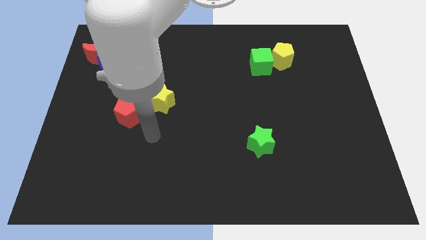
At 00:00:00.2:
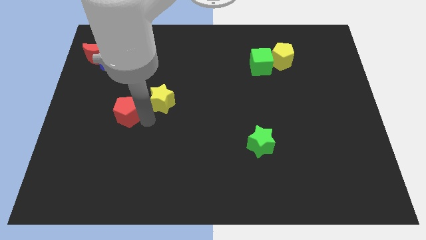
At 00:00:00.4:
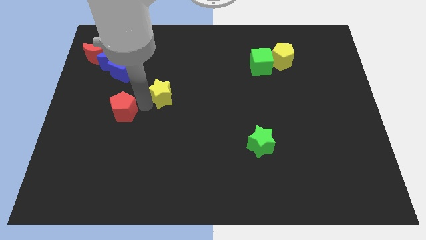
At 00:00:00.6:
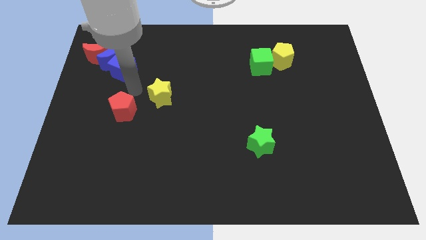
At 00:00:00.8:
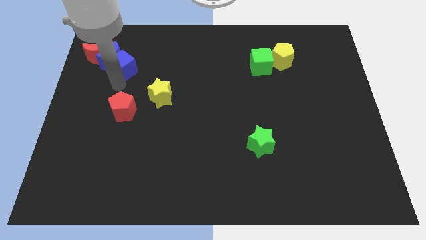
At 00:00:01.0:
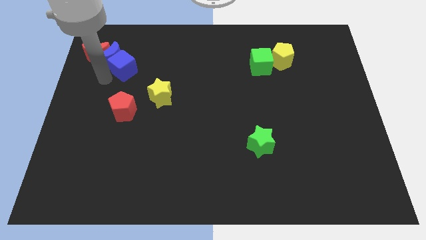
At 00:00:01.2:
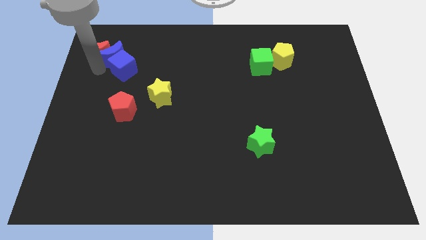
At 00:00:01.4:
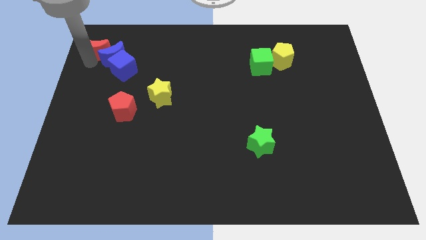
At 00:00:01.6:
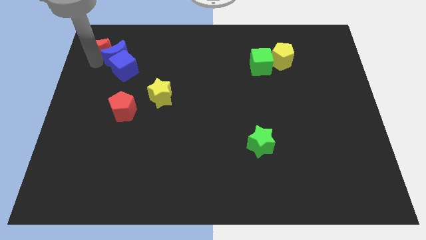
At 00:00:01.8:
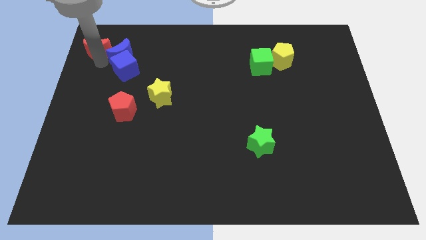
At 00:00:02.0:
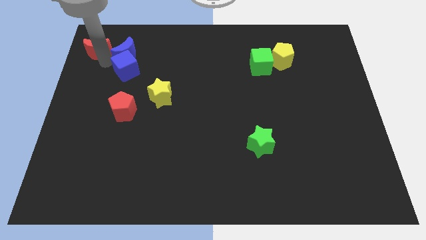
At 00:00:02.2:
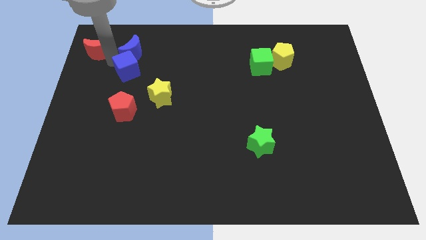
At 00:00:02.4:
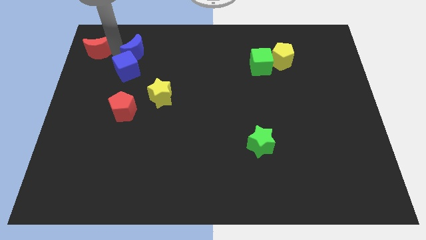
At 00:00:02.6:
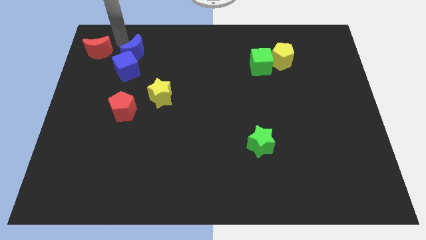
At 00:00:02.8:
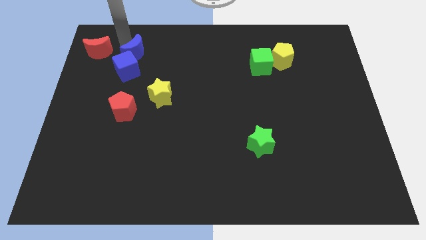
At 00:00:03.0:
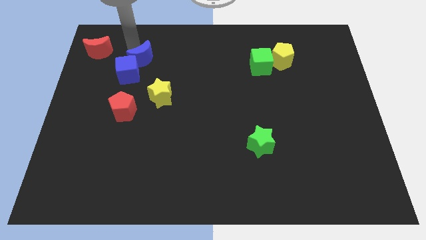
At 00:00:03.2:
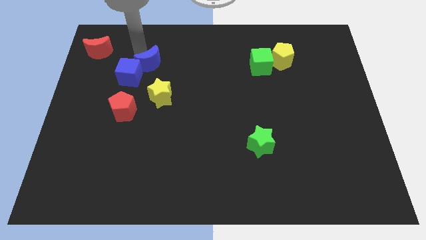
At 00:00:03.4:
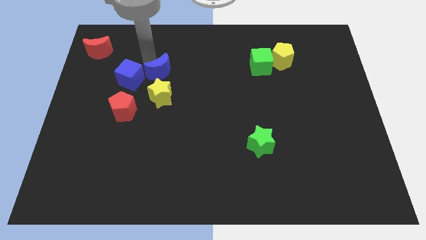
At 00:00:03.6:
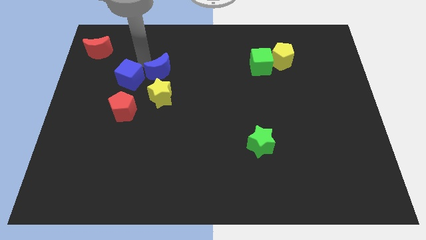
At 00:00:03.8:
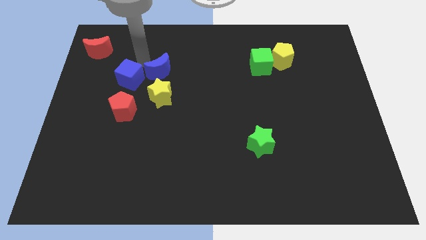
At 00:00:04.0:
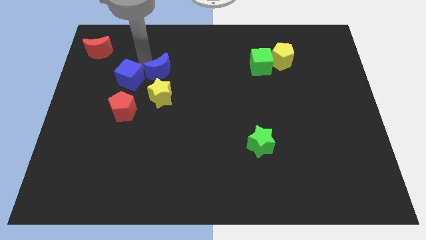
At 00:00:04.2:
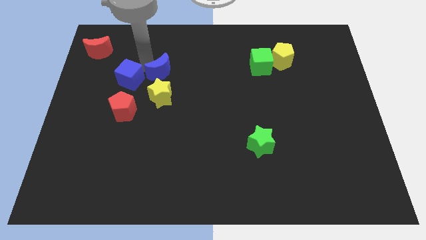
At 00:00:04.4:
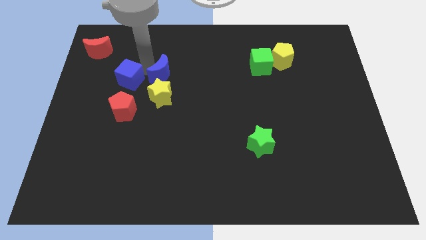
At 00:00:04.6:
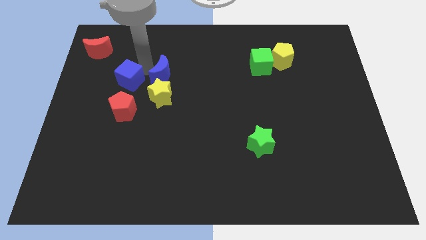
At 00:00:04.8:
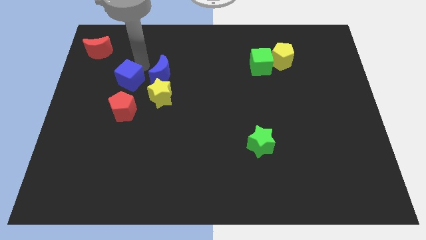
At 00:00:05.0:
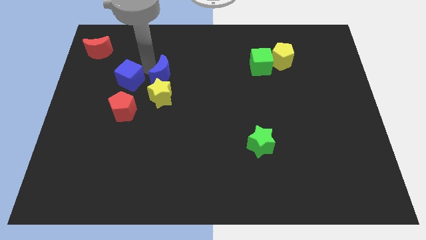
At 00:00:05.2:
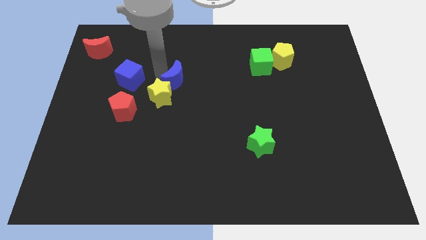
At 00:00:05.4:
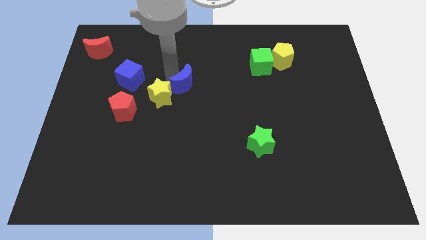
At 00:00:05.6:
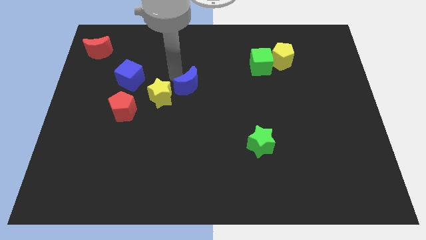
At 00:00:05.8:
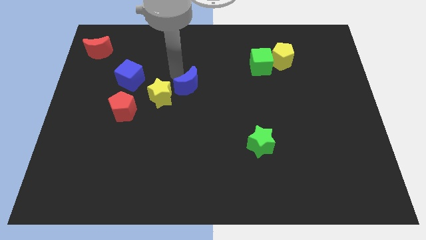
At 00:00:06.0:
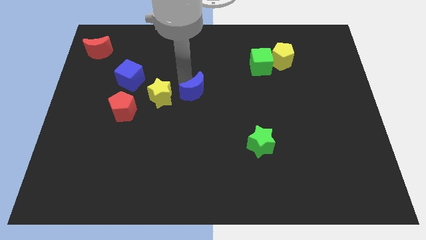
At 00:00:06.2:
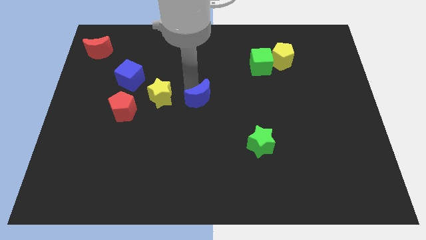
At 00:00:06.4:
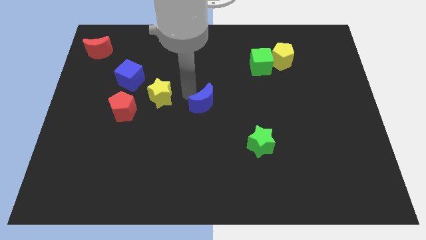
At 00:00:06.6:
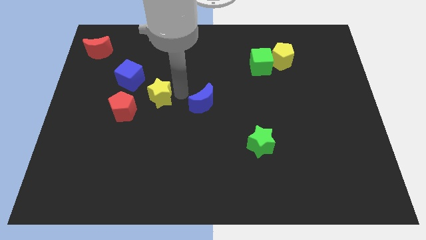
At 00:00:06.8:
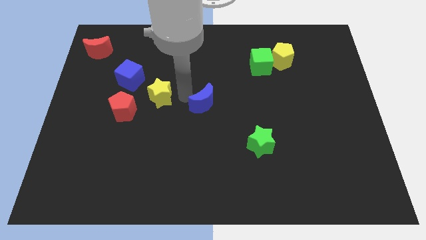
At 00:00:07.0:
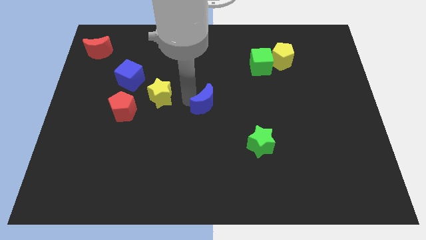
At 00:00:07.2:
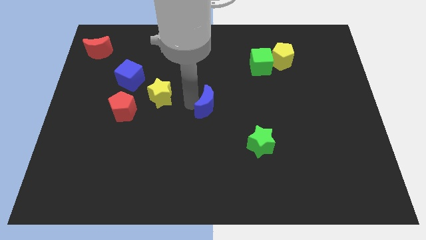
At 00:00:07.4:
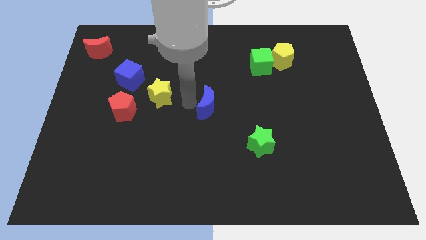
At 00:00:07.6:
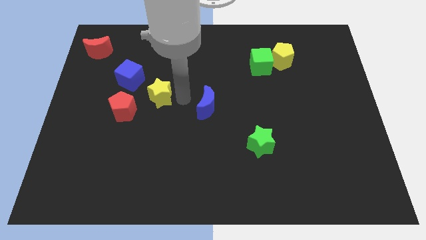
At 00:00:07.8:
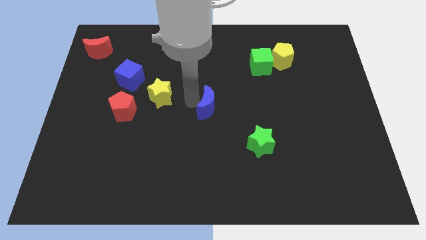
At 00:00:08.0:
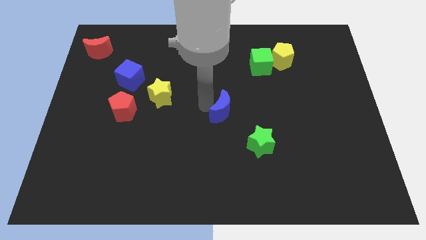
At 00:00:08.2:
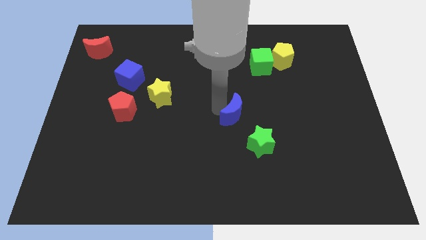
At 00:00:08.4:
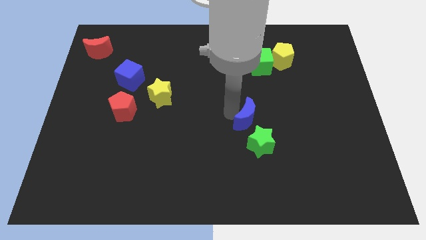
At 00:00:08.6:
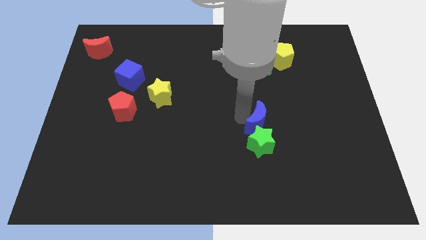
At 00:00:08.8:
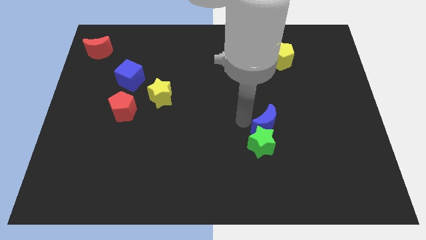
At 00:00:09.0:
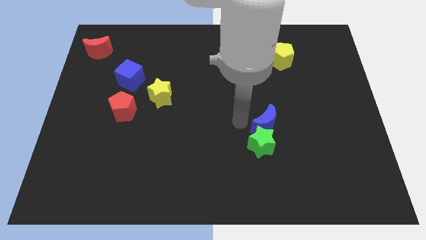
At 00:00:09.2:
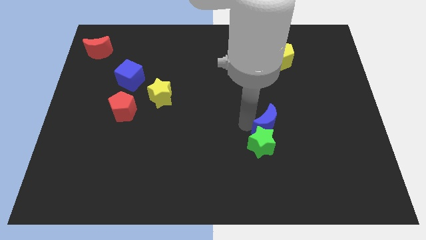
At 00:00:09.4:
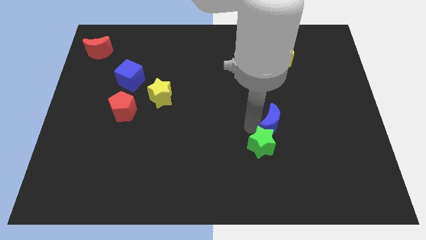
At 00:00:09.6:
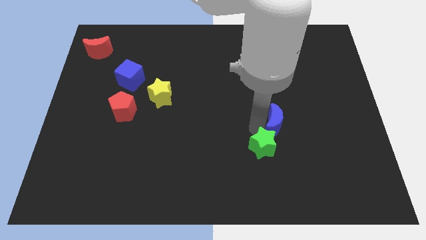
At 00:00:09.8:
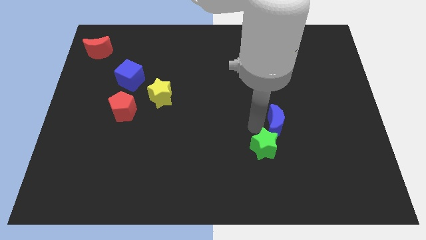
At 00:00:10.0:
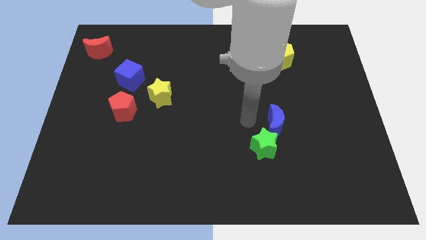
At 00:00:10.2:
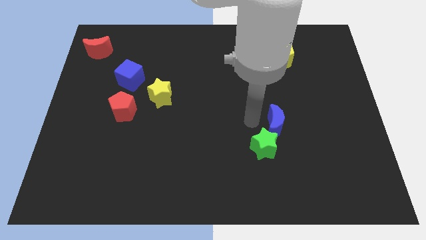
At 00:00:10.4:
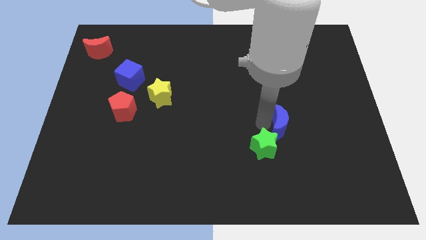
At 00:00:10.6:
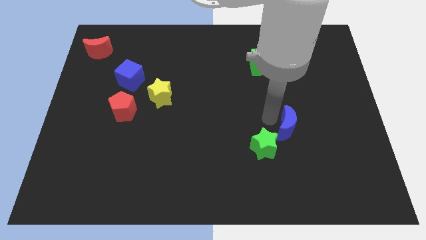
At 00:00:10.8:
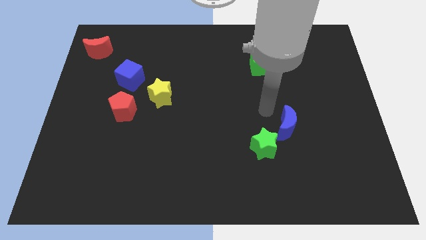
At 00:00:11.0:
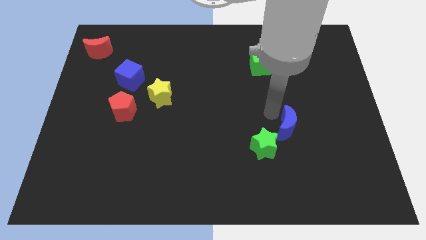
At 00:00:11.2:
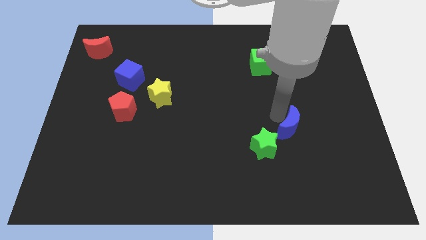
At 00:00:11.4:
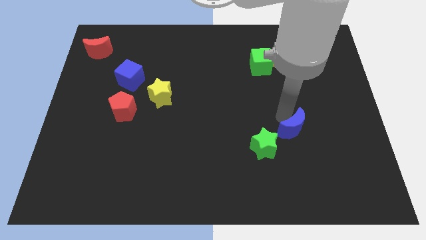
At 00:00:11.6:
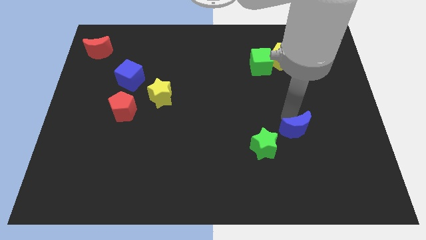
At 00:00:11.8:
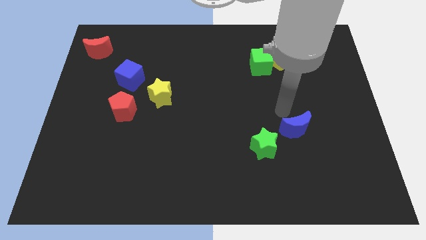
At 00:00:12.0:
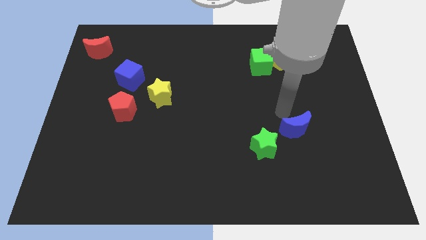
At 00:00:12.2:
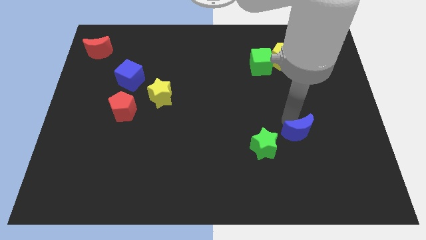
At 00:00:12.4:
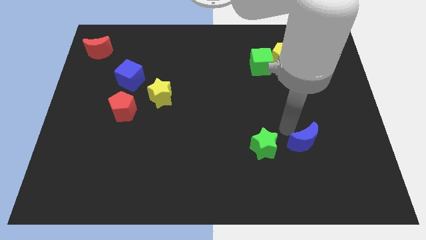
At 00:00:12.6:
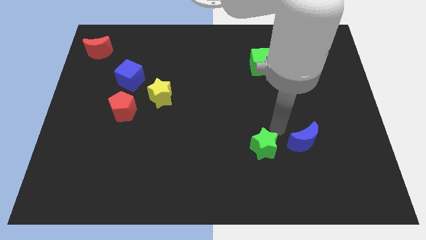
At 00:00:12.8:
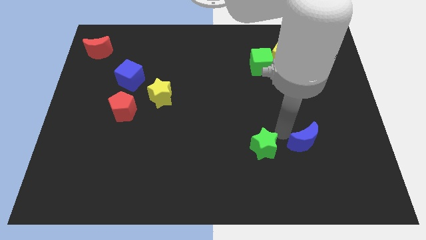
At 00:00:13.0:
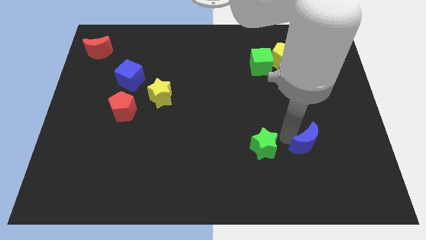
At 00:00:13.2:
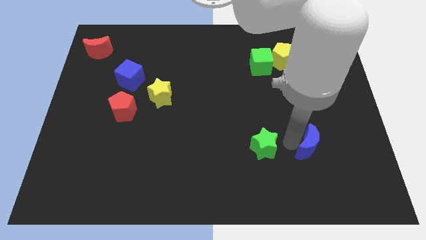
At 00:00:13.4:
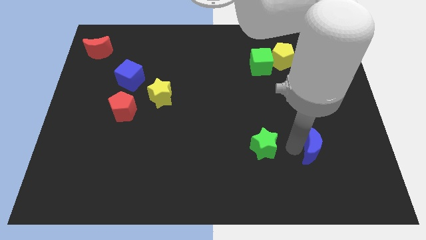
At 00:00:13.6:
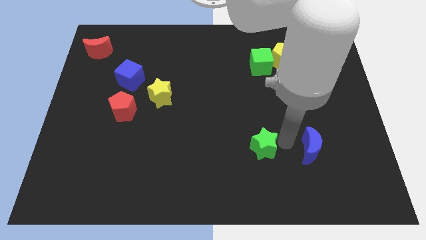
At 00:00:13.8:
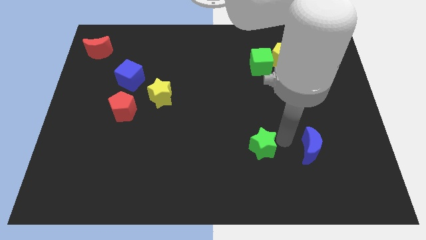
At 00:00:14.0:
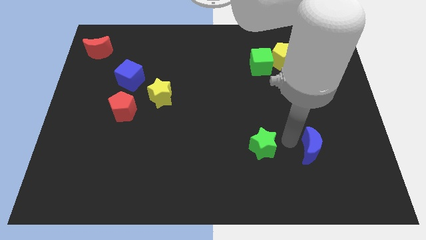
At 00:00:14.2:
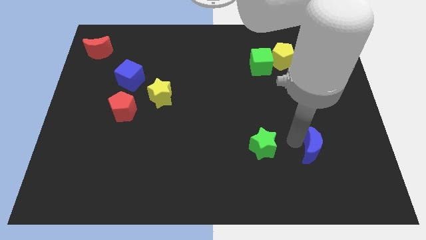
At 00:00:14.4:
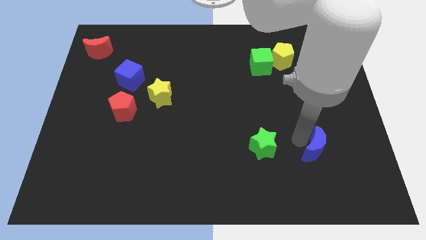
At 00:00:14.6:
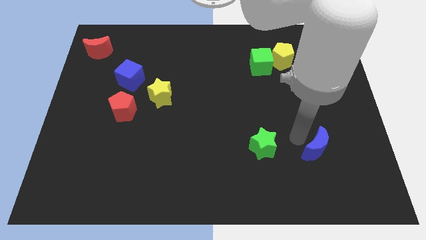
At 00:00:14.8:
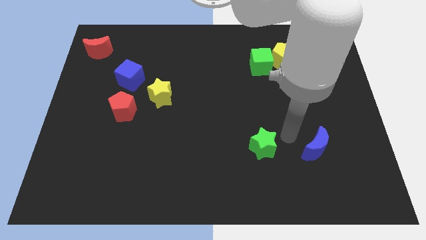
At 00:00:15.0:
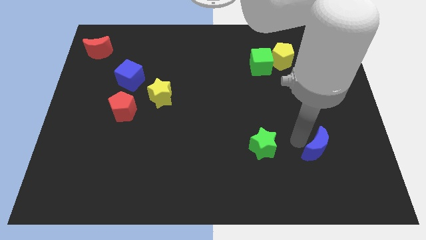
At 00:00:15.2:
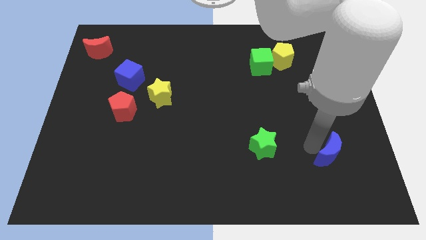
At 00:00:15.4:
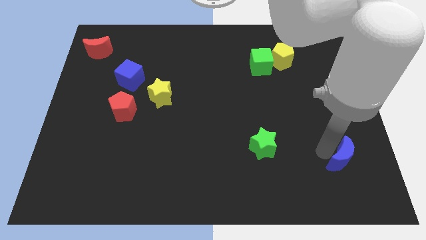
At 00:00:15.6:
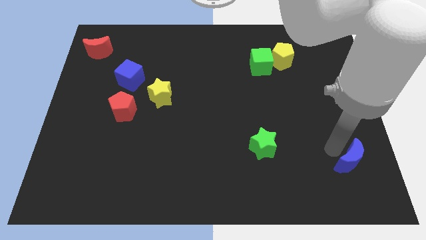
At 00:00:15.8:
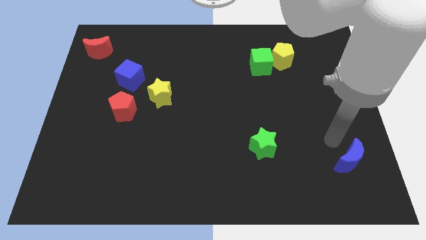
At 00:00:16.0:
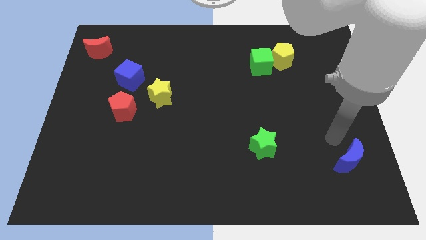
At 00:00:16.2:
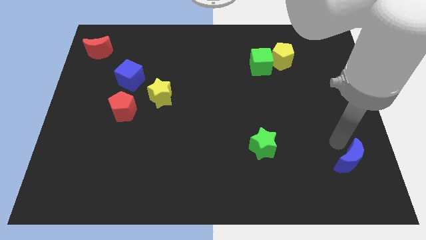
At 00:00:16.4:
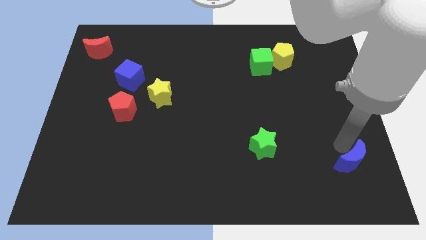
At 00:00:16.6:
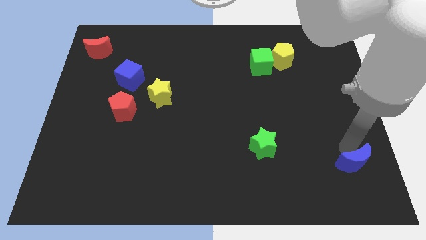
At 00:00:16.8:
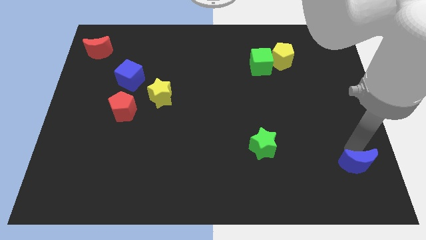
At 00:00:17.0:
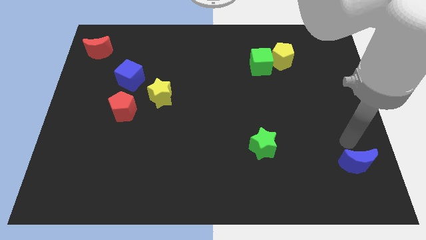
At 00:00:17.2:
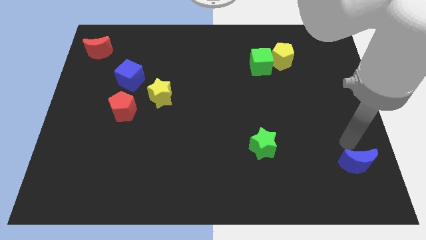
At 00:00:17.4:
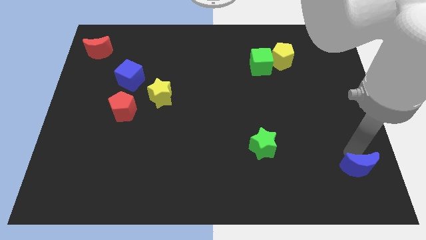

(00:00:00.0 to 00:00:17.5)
put the blue moon to the bottom right
